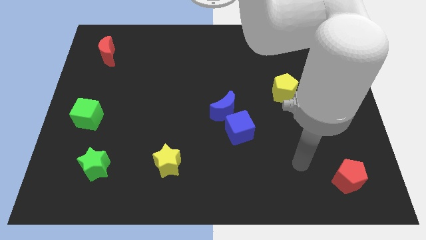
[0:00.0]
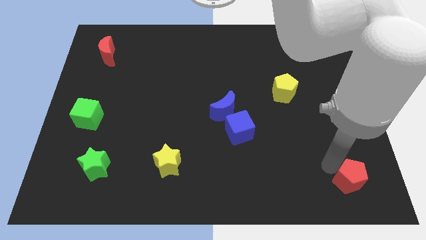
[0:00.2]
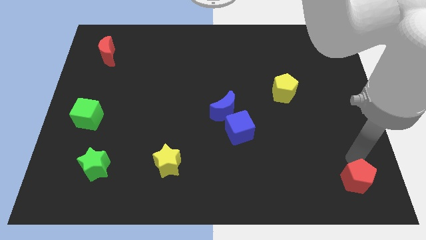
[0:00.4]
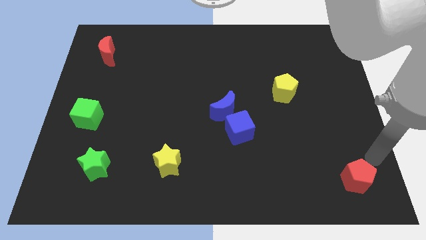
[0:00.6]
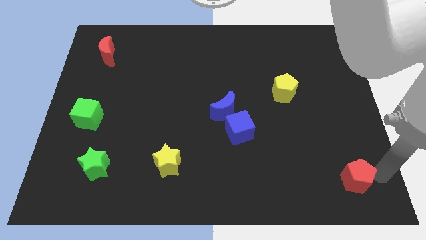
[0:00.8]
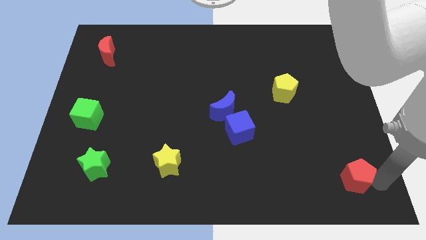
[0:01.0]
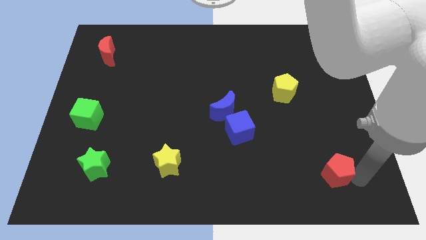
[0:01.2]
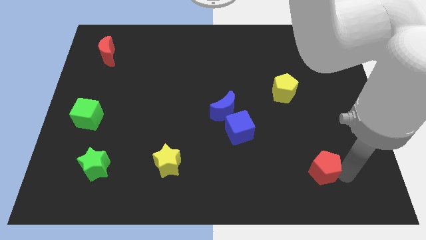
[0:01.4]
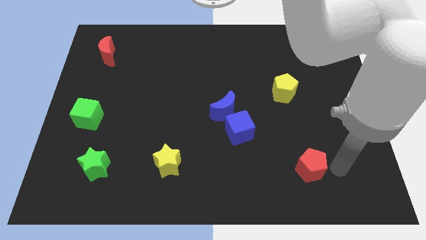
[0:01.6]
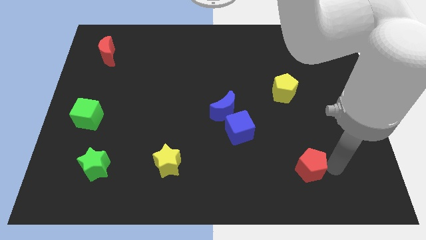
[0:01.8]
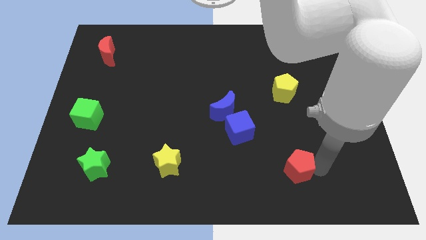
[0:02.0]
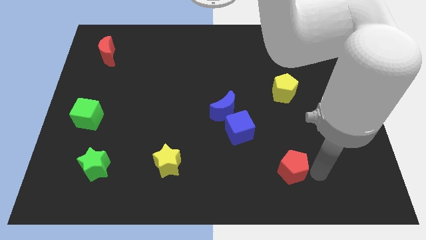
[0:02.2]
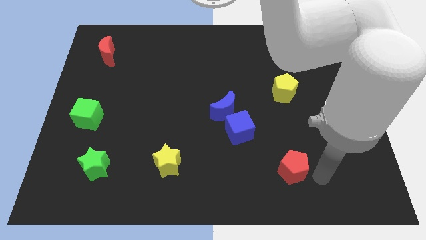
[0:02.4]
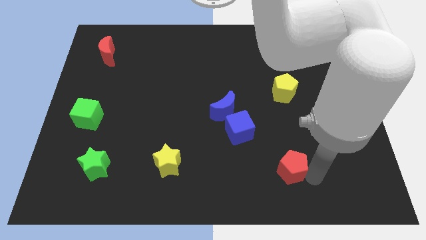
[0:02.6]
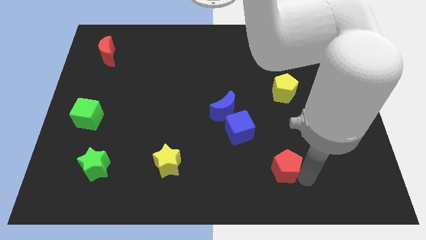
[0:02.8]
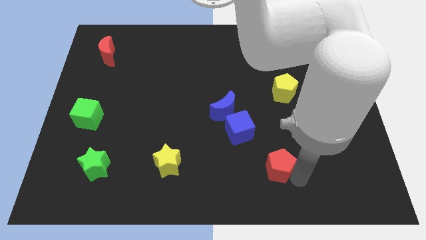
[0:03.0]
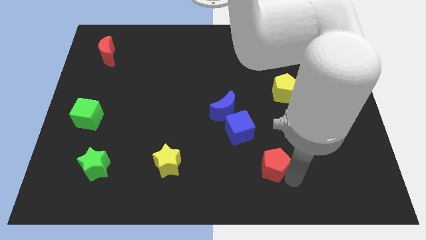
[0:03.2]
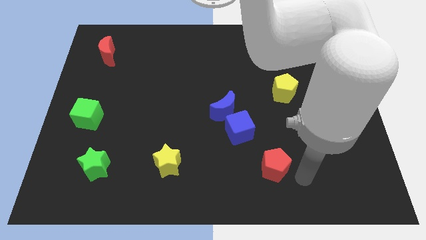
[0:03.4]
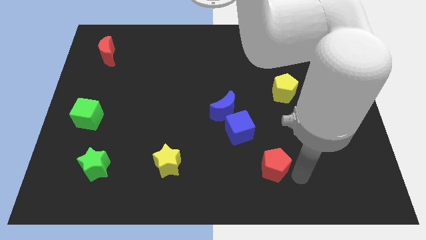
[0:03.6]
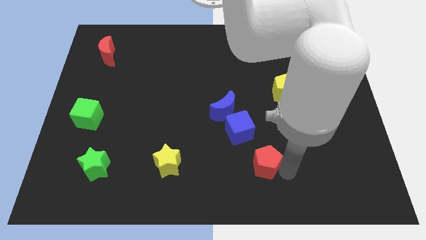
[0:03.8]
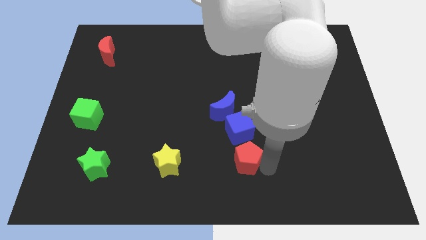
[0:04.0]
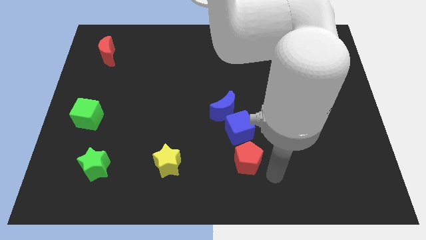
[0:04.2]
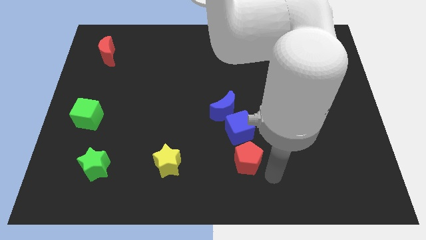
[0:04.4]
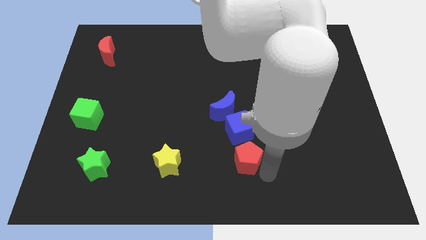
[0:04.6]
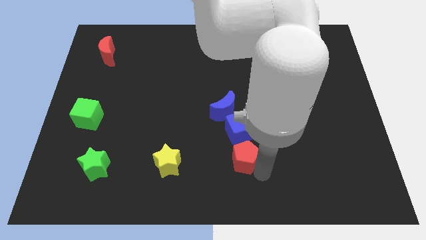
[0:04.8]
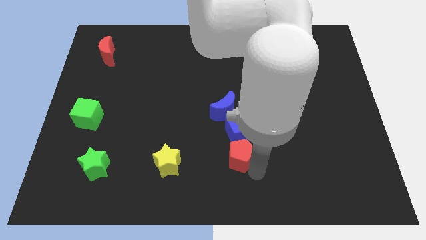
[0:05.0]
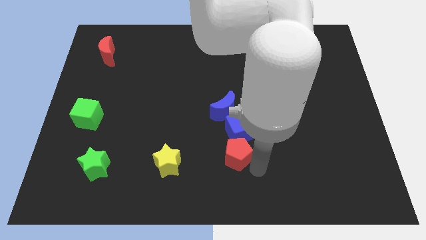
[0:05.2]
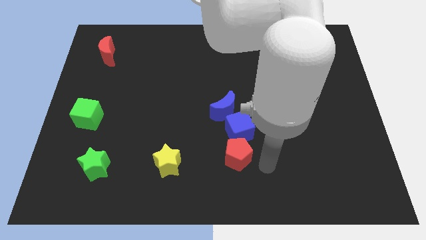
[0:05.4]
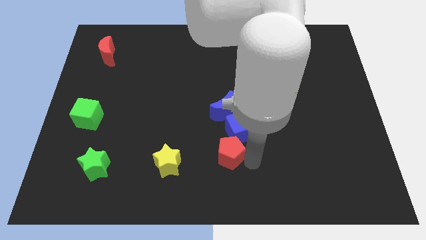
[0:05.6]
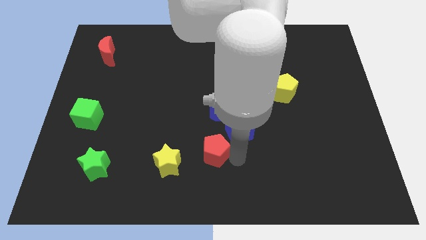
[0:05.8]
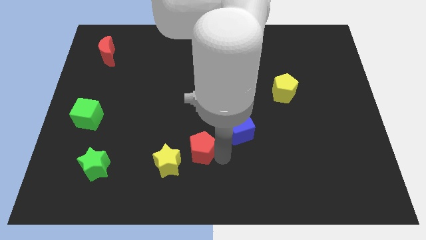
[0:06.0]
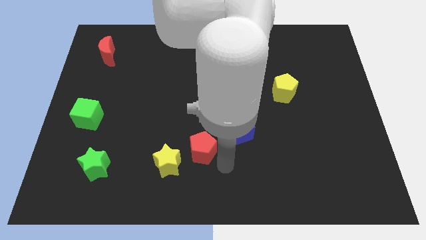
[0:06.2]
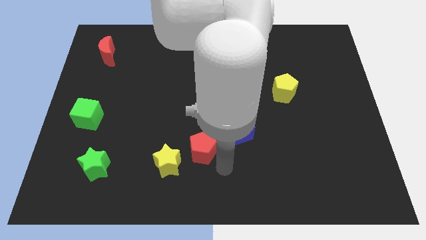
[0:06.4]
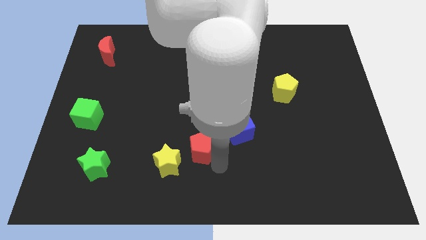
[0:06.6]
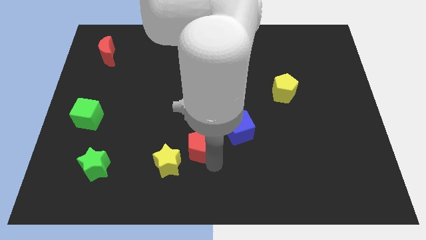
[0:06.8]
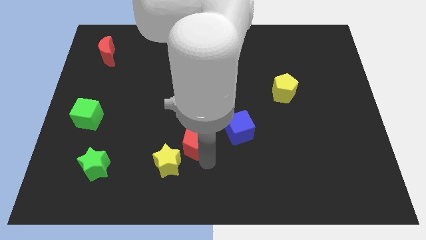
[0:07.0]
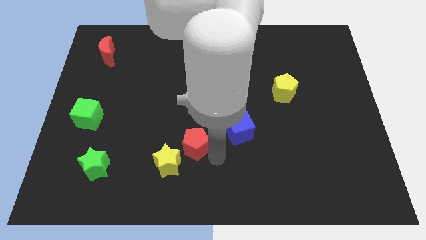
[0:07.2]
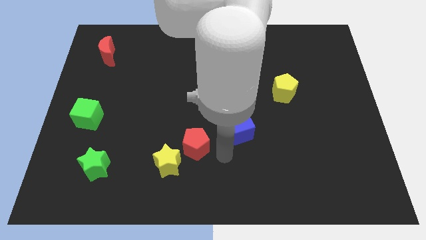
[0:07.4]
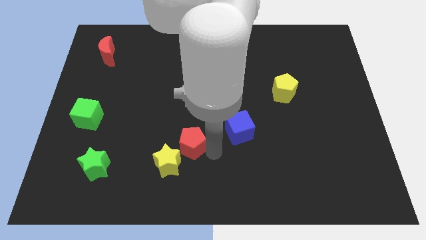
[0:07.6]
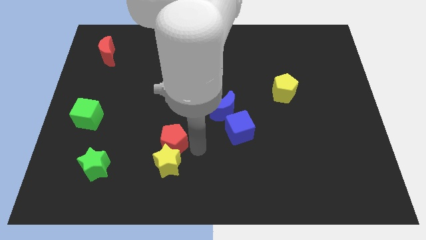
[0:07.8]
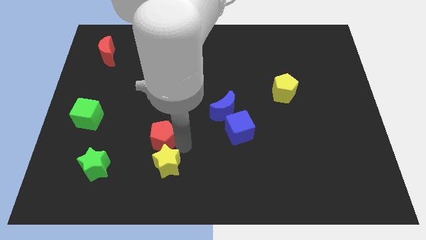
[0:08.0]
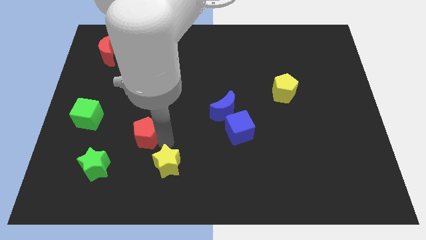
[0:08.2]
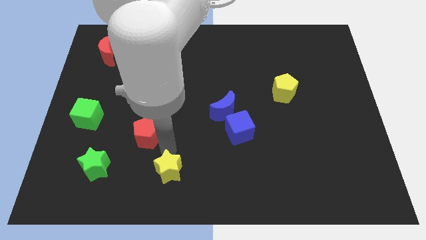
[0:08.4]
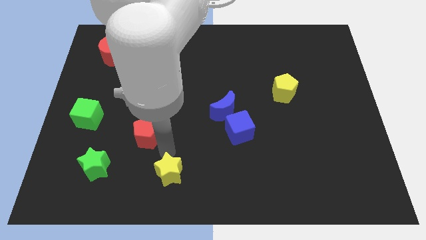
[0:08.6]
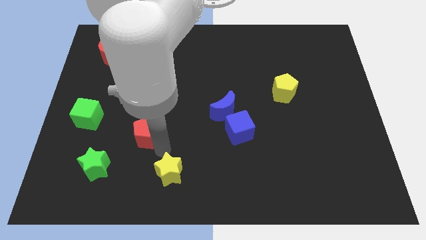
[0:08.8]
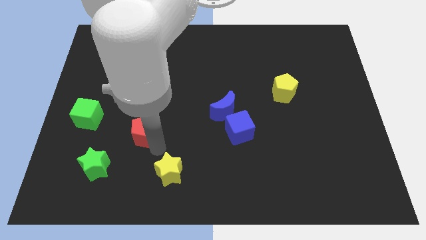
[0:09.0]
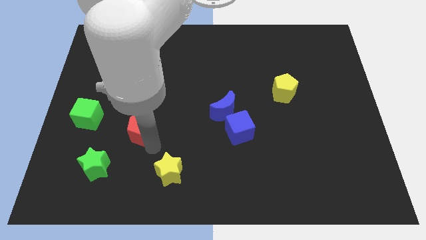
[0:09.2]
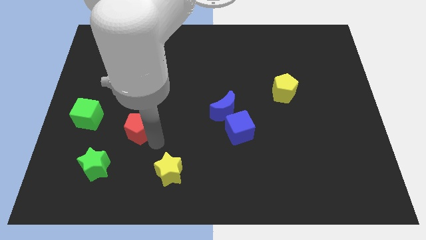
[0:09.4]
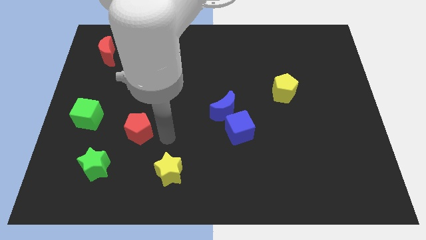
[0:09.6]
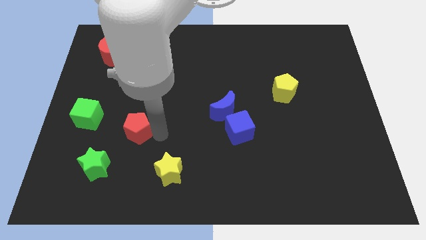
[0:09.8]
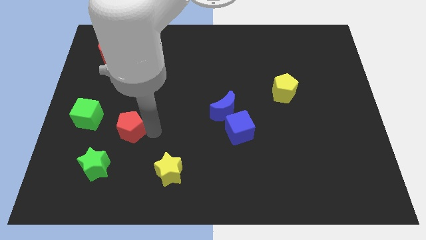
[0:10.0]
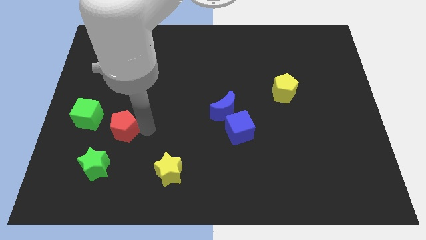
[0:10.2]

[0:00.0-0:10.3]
push the red pentagon above the green star

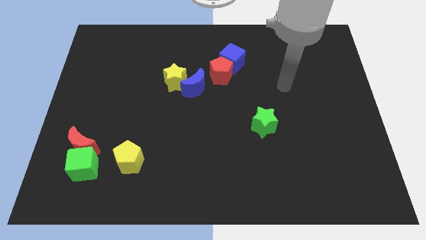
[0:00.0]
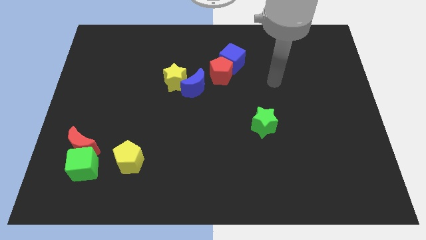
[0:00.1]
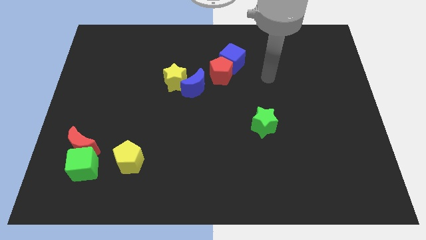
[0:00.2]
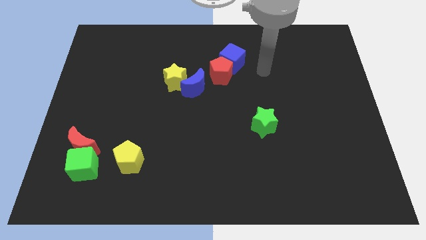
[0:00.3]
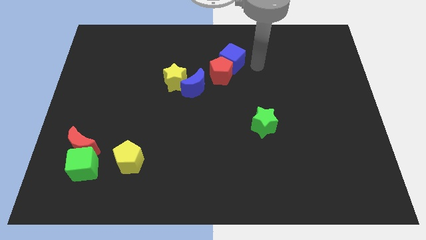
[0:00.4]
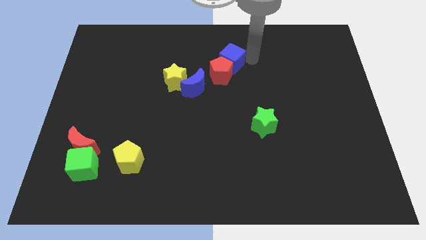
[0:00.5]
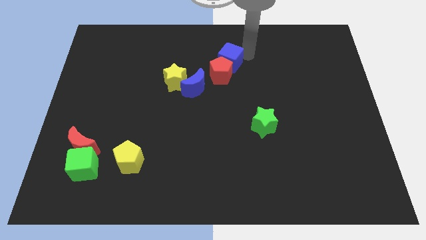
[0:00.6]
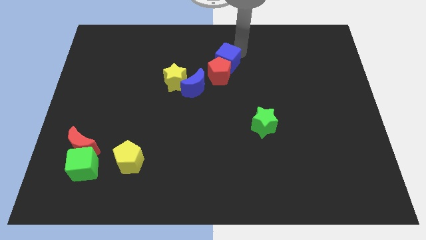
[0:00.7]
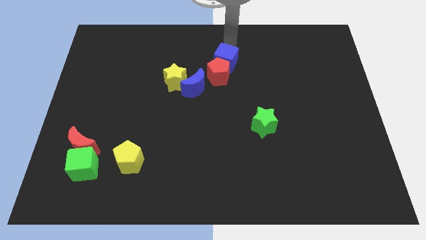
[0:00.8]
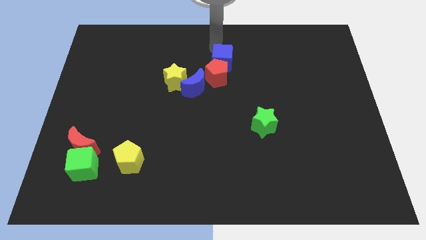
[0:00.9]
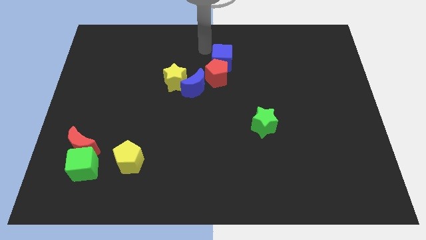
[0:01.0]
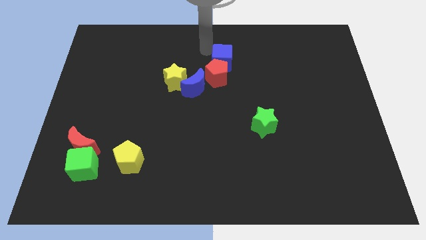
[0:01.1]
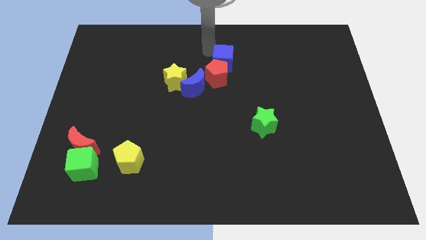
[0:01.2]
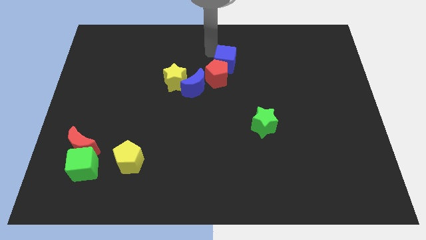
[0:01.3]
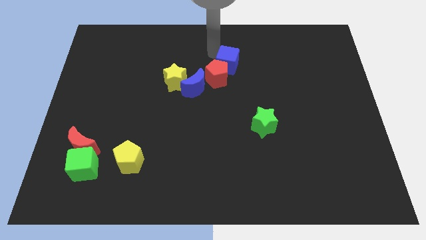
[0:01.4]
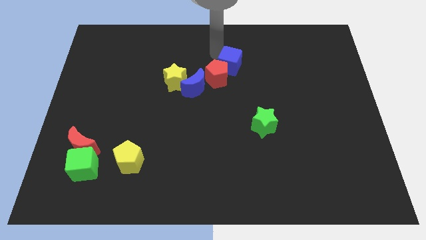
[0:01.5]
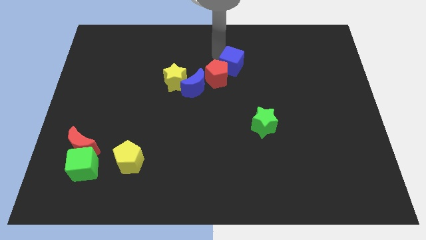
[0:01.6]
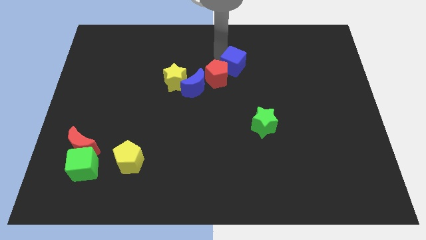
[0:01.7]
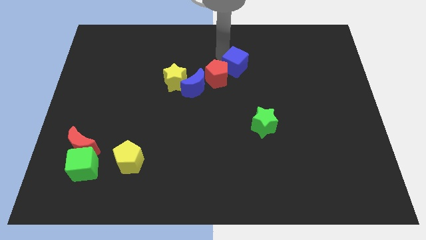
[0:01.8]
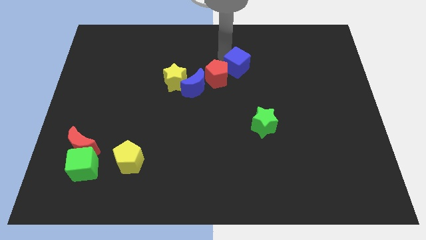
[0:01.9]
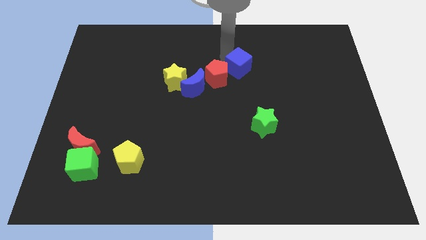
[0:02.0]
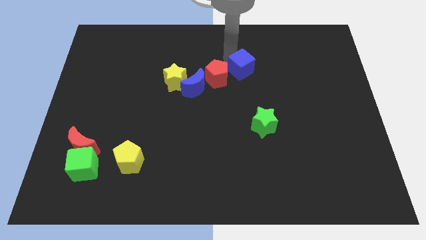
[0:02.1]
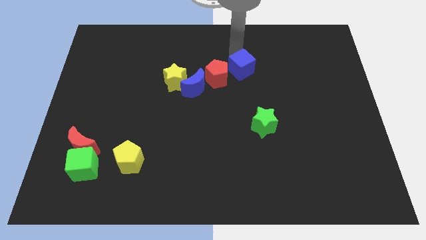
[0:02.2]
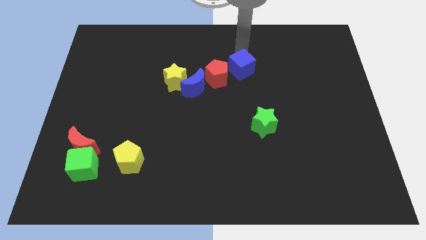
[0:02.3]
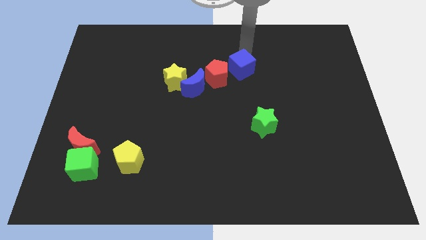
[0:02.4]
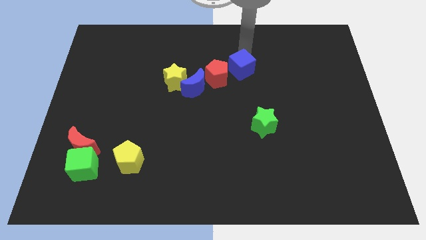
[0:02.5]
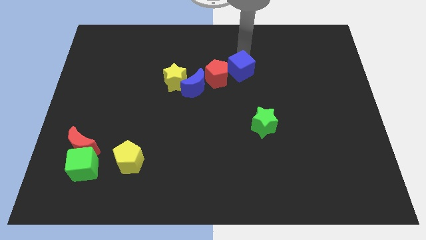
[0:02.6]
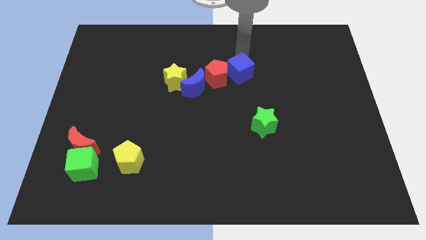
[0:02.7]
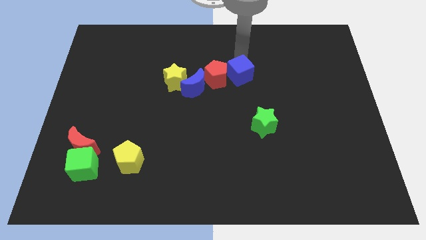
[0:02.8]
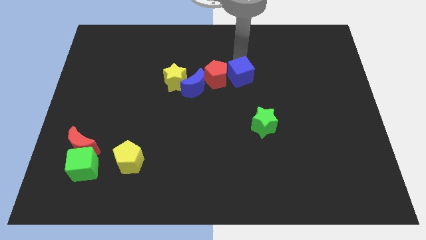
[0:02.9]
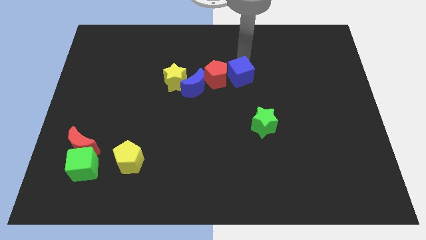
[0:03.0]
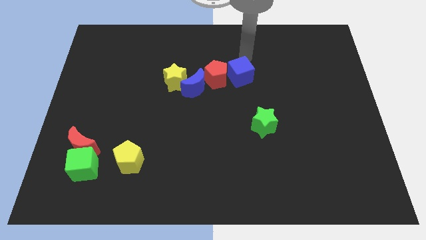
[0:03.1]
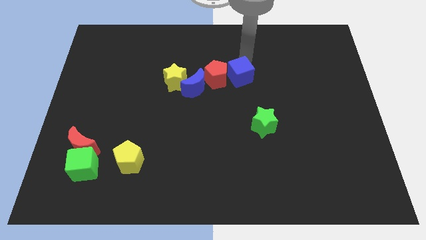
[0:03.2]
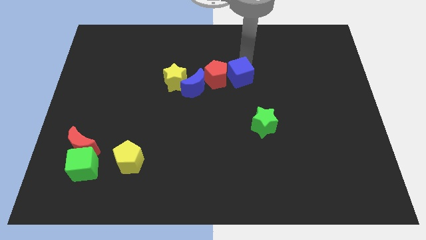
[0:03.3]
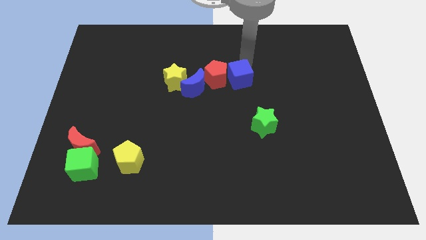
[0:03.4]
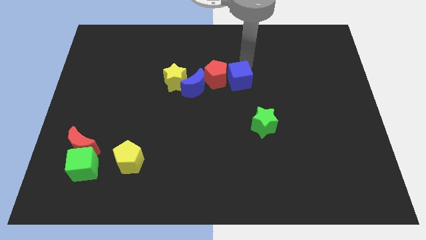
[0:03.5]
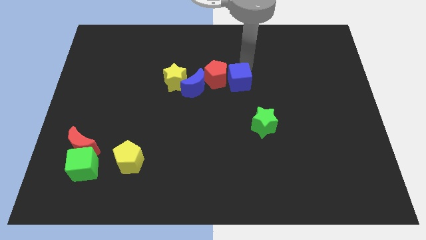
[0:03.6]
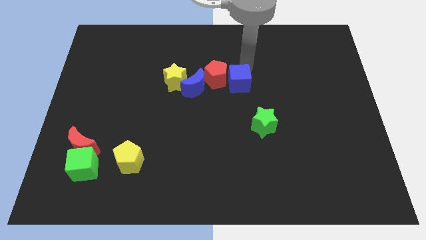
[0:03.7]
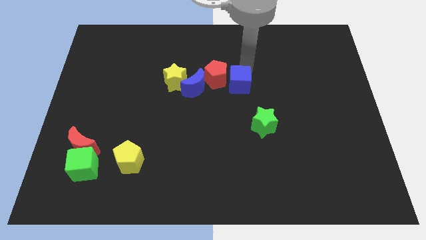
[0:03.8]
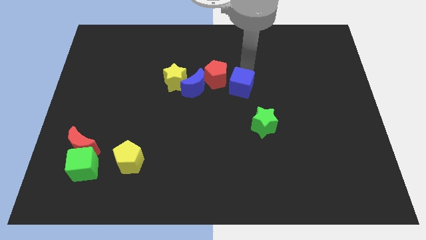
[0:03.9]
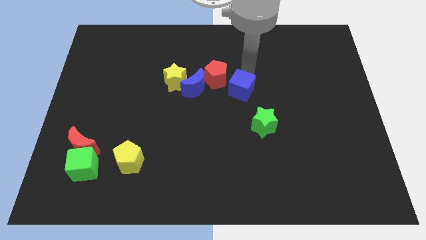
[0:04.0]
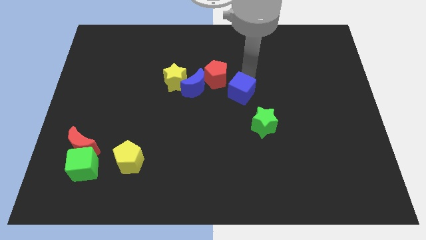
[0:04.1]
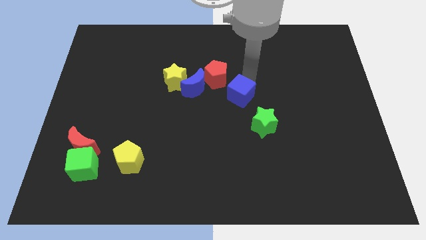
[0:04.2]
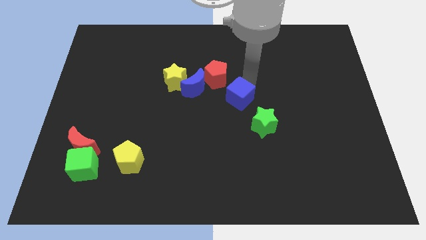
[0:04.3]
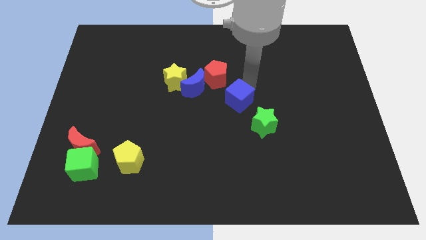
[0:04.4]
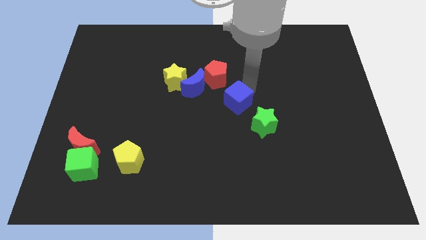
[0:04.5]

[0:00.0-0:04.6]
slide the blue cube to the bottom of the red pentagon
